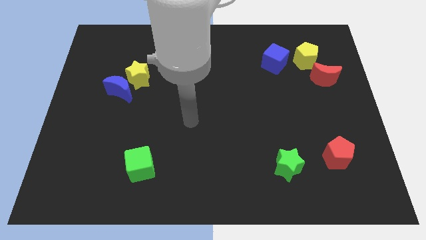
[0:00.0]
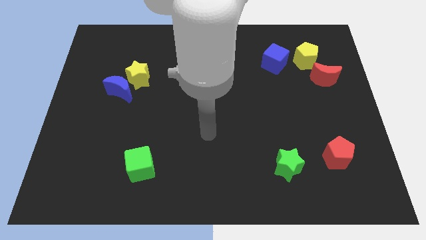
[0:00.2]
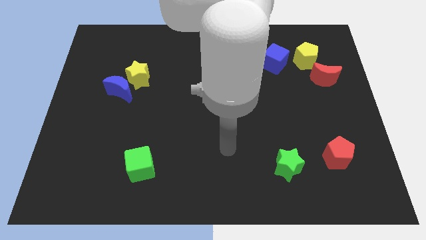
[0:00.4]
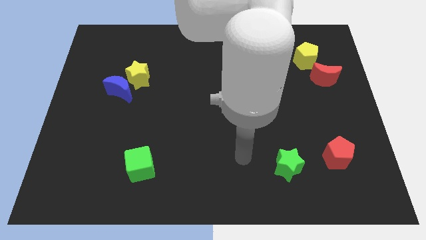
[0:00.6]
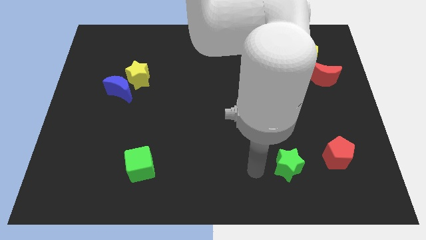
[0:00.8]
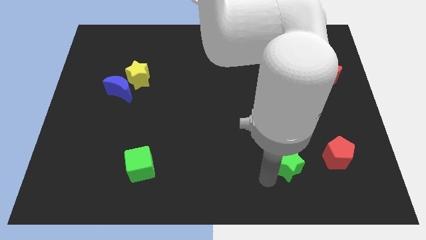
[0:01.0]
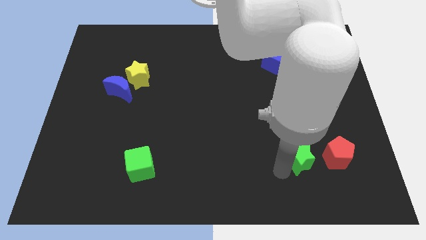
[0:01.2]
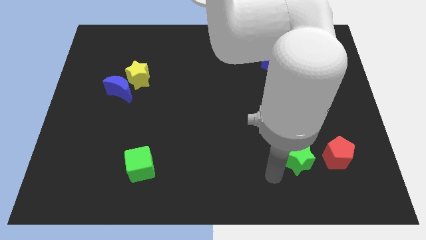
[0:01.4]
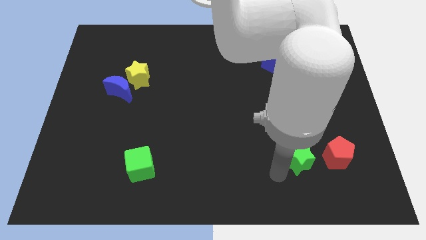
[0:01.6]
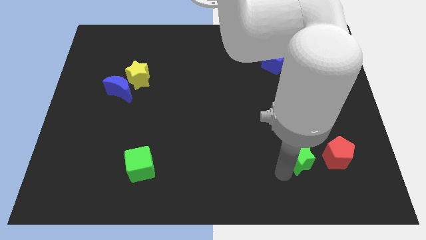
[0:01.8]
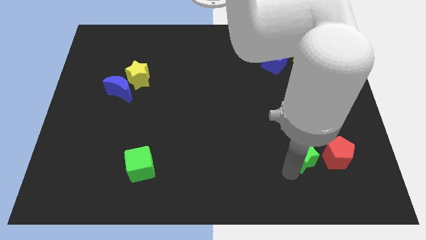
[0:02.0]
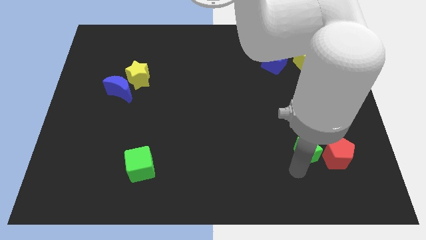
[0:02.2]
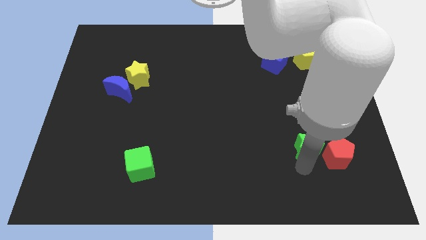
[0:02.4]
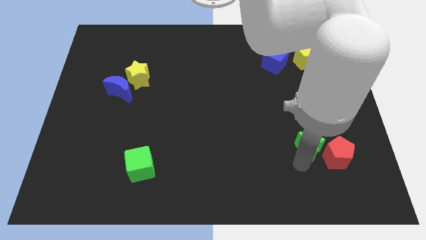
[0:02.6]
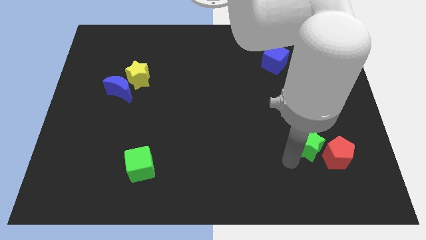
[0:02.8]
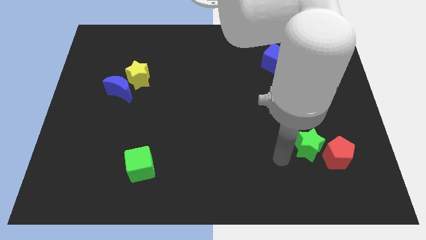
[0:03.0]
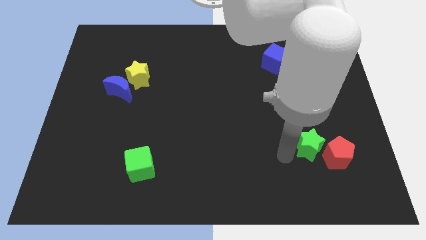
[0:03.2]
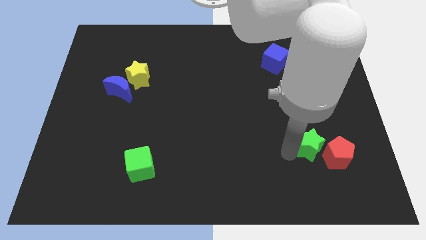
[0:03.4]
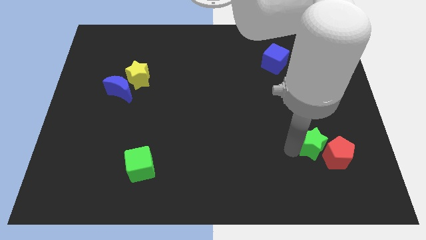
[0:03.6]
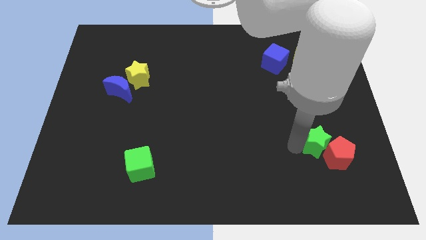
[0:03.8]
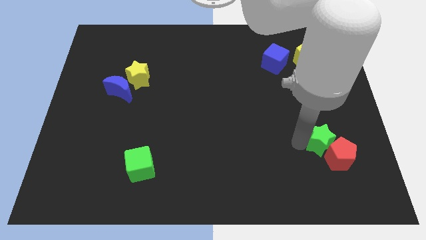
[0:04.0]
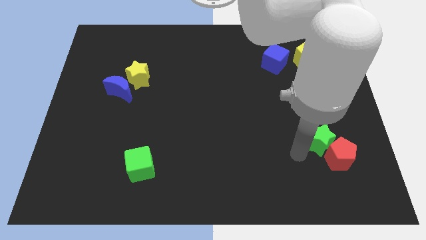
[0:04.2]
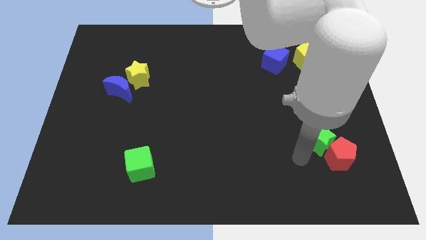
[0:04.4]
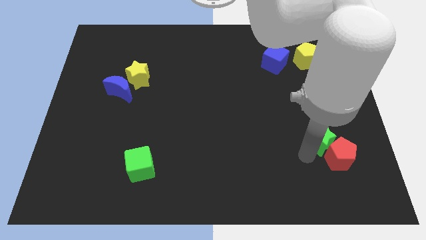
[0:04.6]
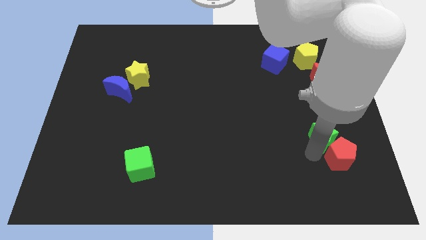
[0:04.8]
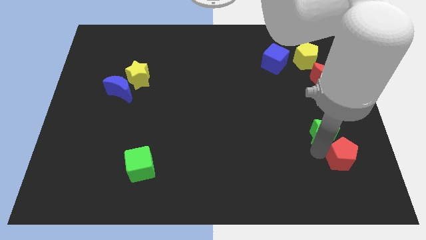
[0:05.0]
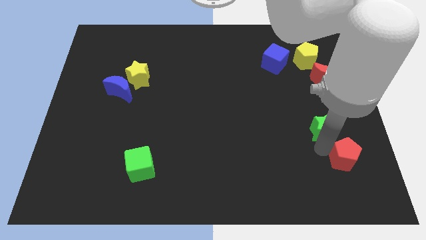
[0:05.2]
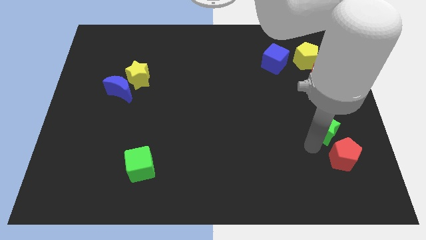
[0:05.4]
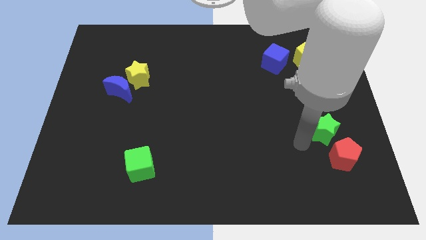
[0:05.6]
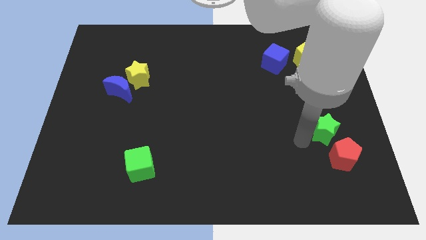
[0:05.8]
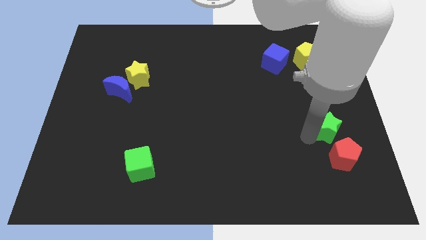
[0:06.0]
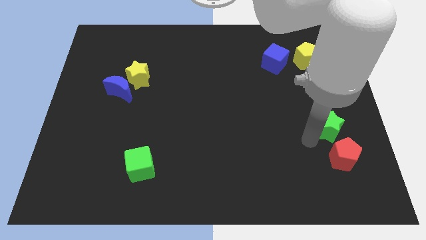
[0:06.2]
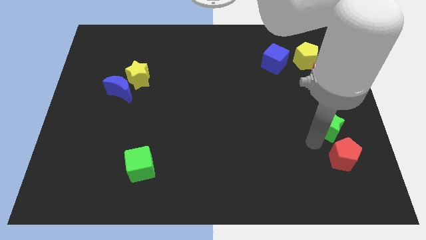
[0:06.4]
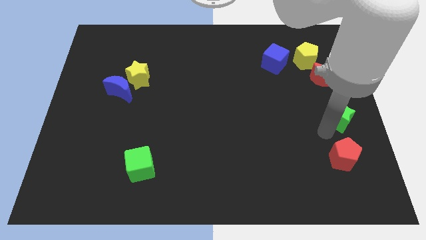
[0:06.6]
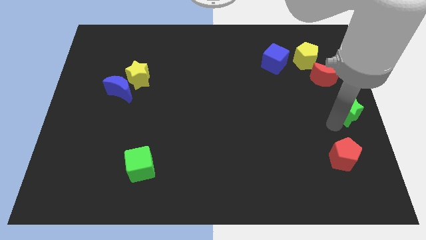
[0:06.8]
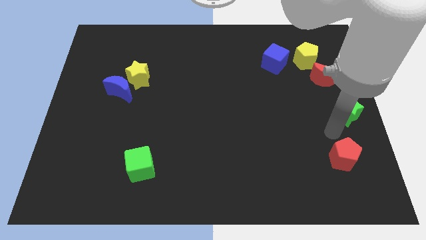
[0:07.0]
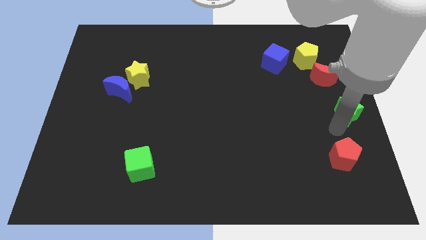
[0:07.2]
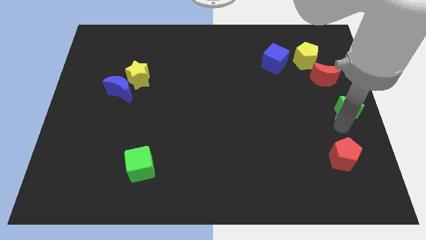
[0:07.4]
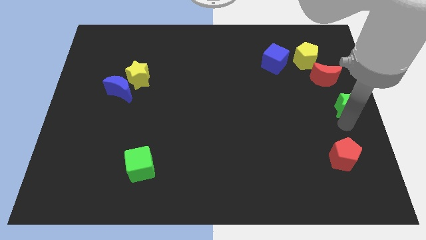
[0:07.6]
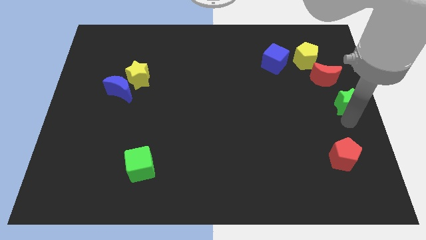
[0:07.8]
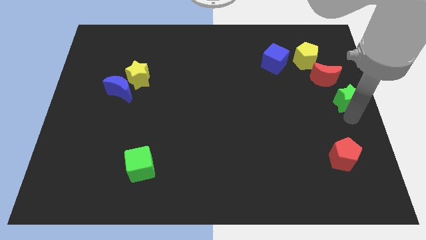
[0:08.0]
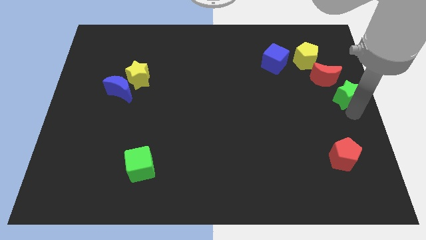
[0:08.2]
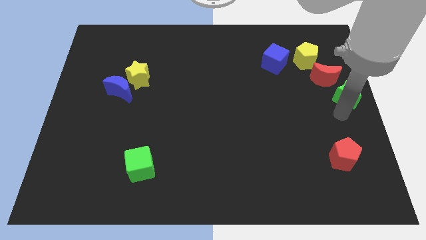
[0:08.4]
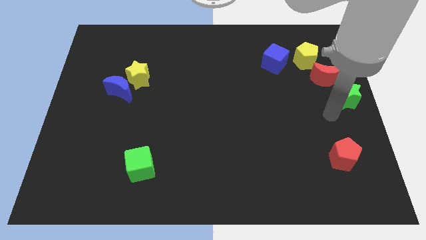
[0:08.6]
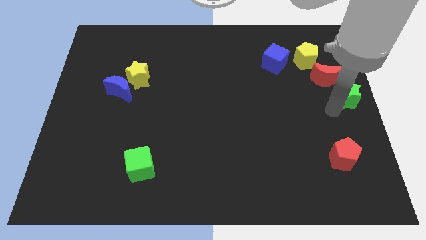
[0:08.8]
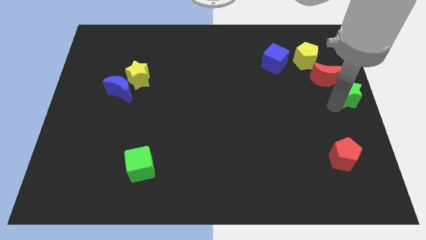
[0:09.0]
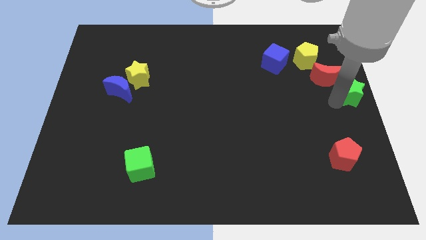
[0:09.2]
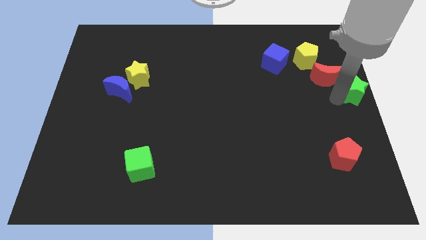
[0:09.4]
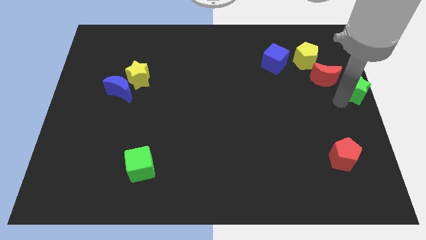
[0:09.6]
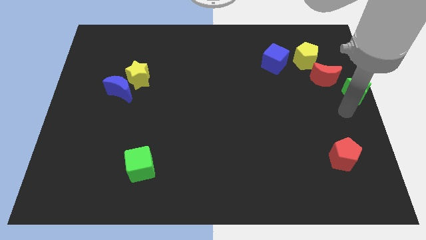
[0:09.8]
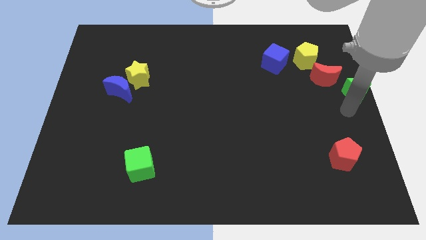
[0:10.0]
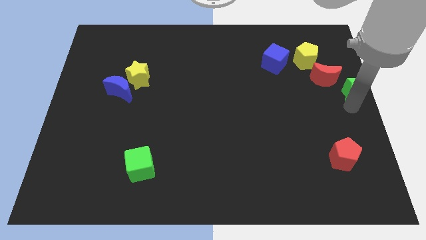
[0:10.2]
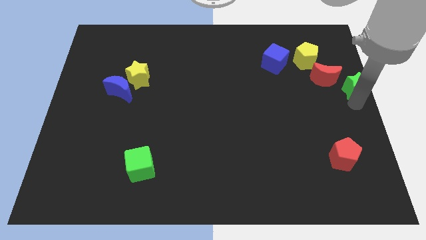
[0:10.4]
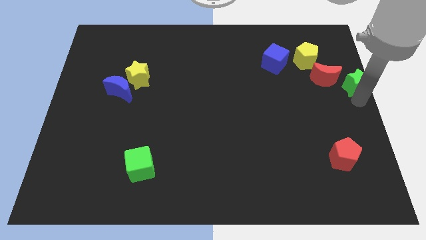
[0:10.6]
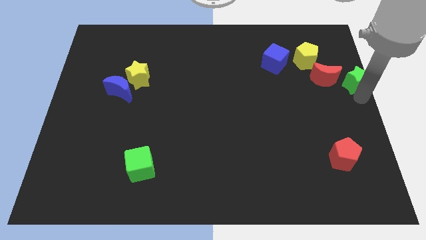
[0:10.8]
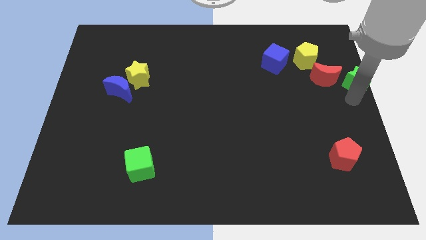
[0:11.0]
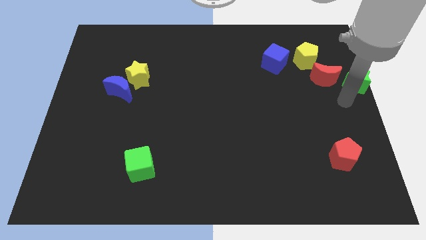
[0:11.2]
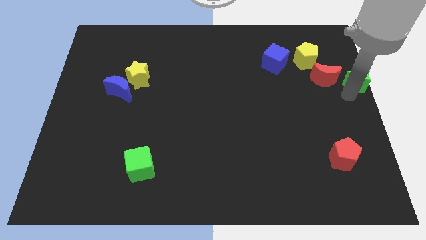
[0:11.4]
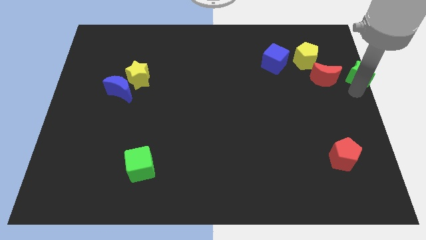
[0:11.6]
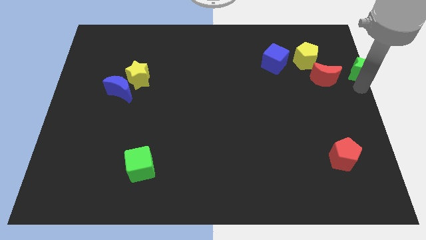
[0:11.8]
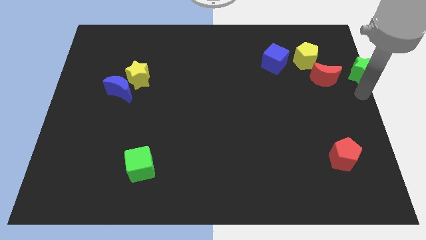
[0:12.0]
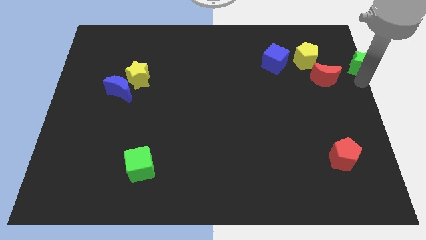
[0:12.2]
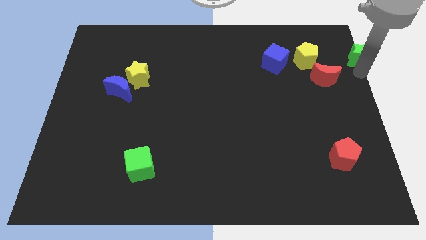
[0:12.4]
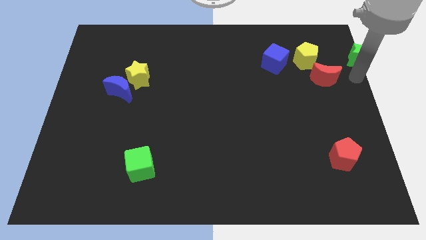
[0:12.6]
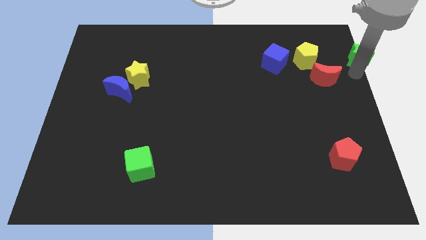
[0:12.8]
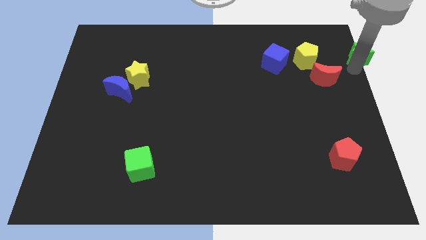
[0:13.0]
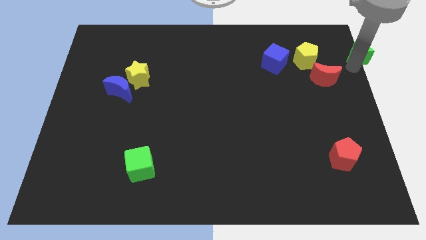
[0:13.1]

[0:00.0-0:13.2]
slide the green star to the top right corner
